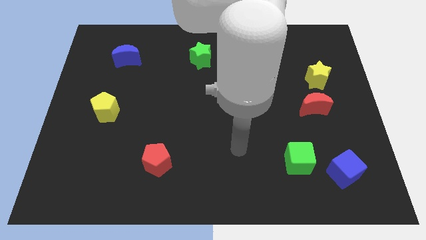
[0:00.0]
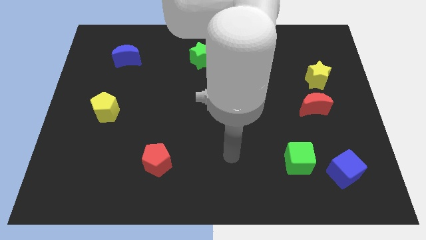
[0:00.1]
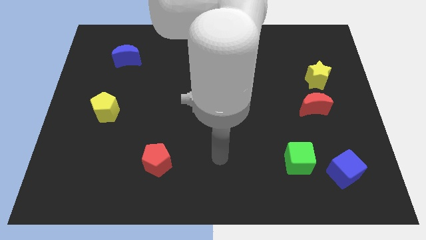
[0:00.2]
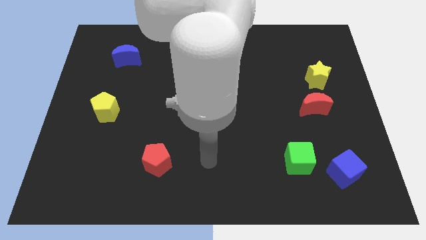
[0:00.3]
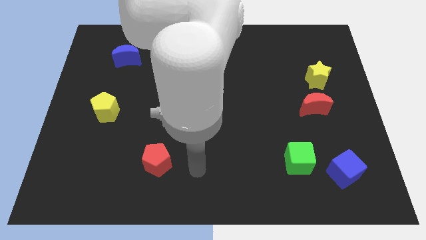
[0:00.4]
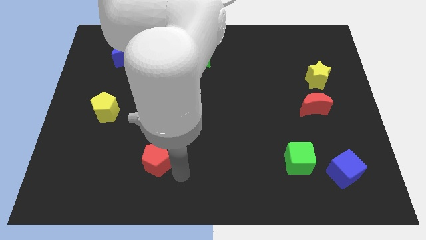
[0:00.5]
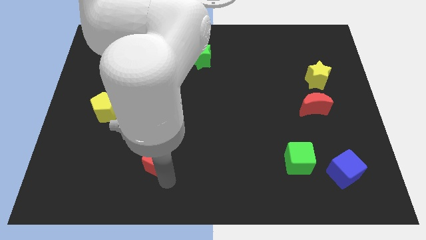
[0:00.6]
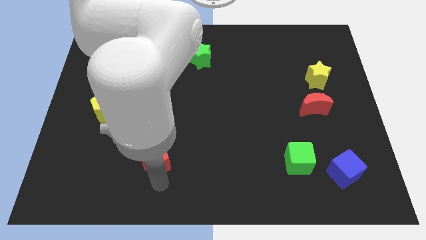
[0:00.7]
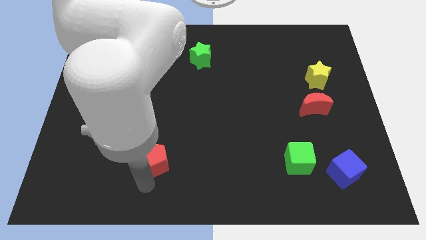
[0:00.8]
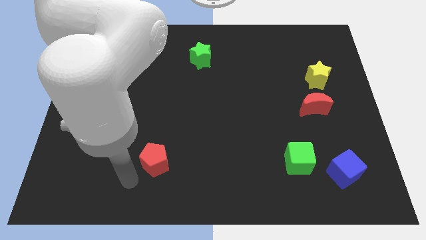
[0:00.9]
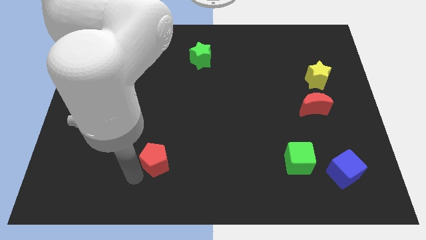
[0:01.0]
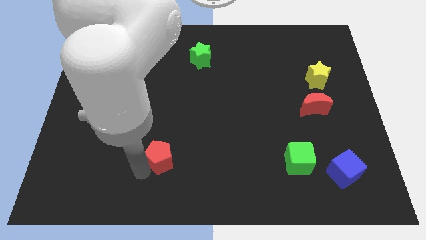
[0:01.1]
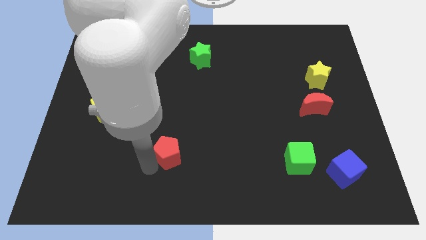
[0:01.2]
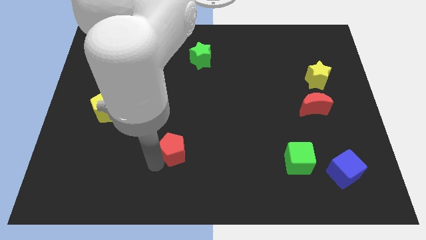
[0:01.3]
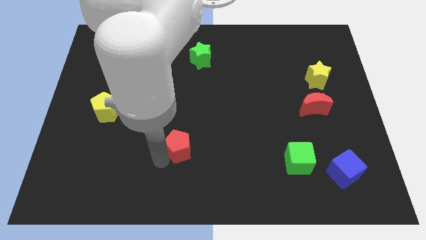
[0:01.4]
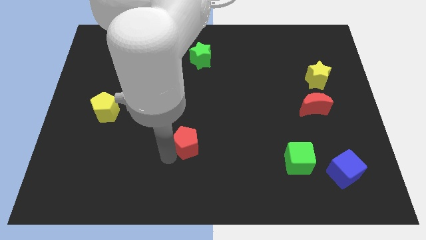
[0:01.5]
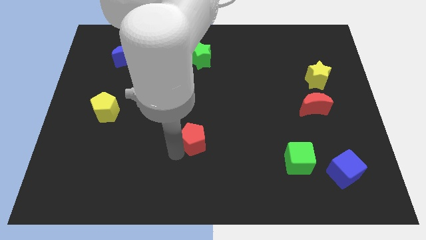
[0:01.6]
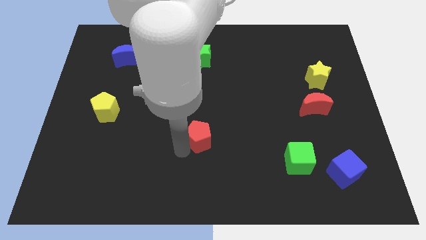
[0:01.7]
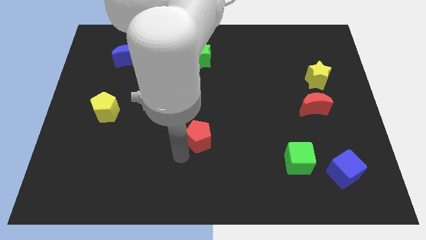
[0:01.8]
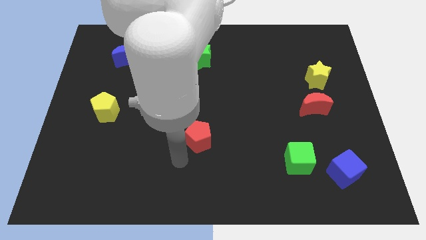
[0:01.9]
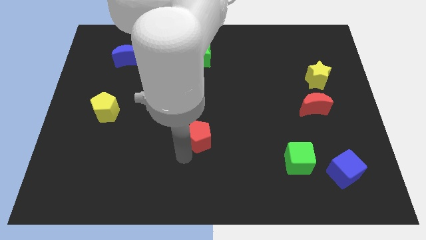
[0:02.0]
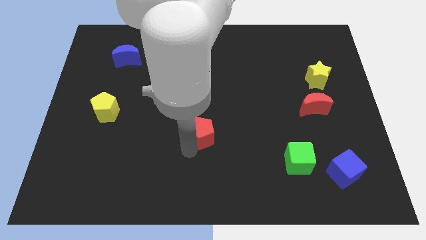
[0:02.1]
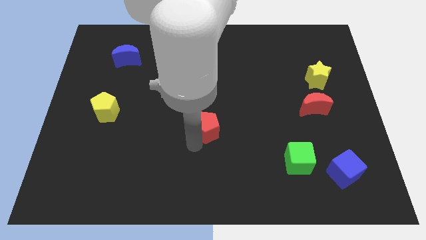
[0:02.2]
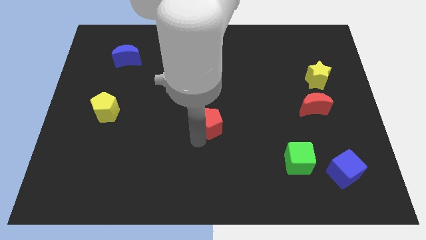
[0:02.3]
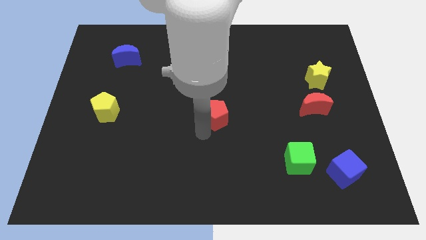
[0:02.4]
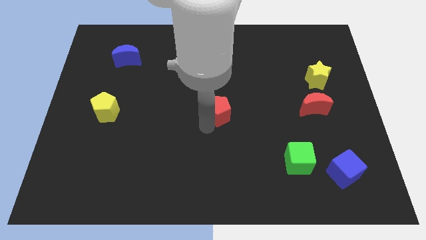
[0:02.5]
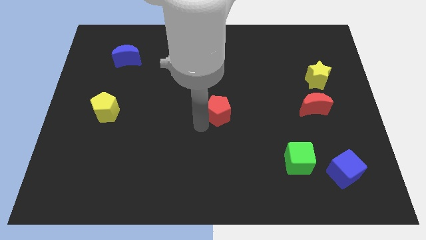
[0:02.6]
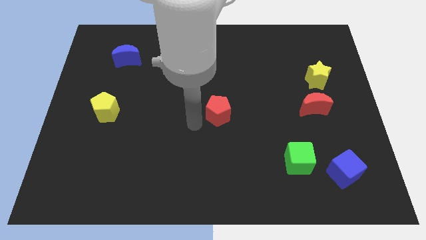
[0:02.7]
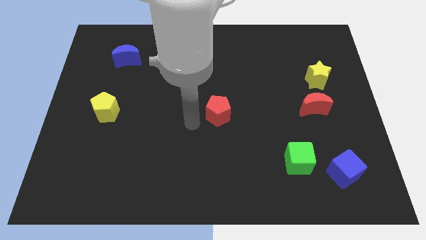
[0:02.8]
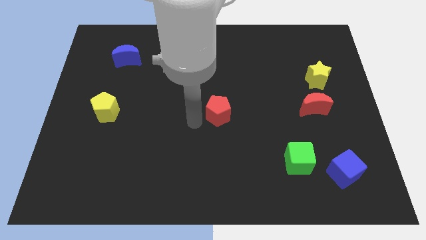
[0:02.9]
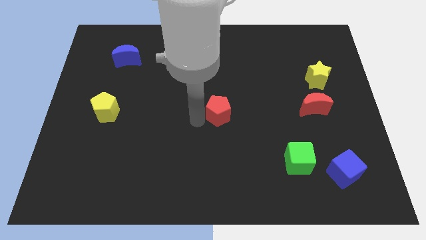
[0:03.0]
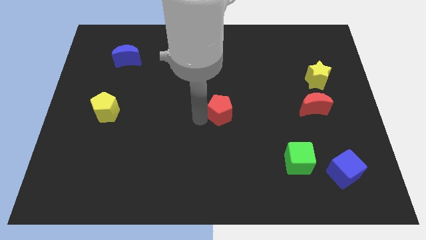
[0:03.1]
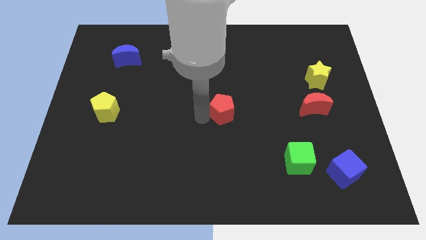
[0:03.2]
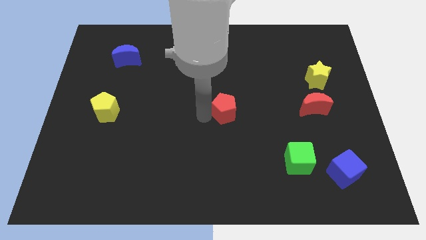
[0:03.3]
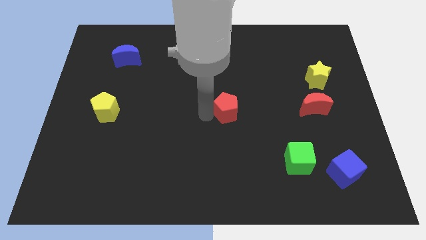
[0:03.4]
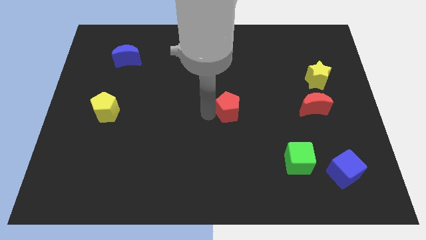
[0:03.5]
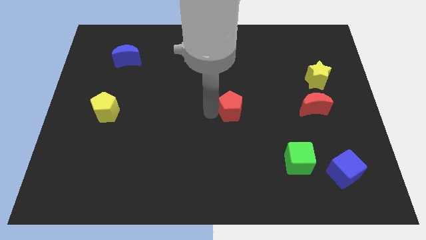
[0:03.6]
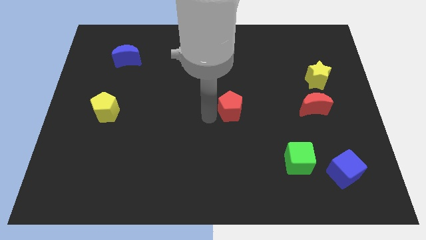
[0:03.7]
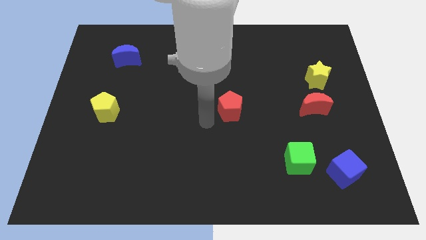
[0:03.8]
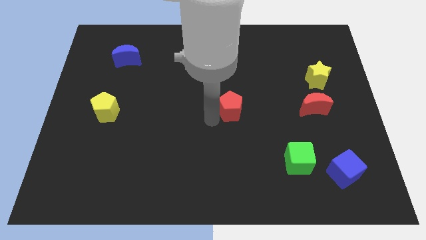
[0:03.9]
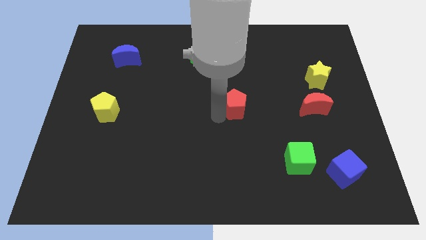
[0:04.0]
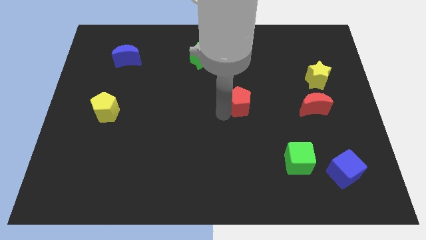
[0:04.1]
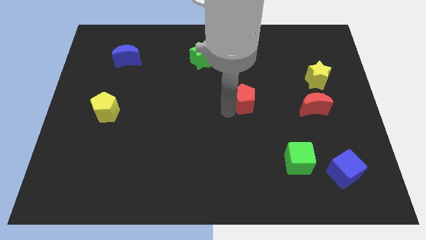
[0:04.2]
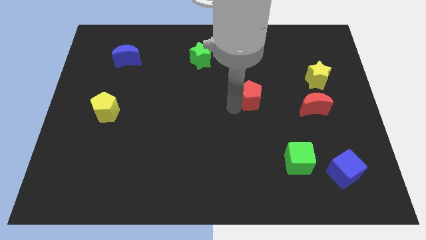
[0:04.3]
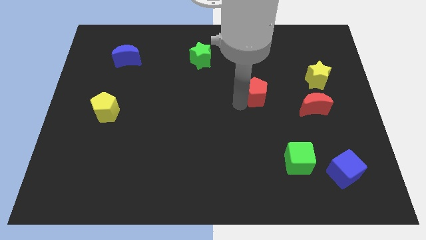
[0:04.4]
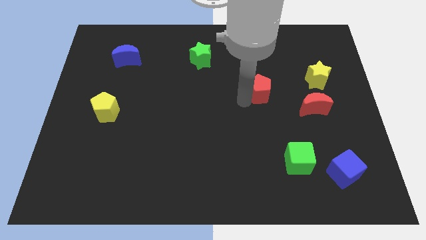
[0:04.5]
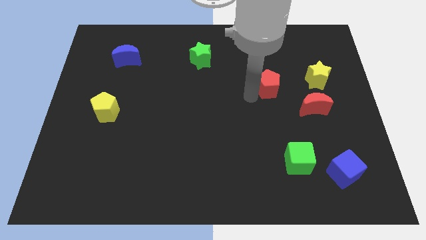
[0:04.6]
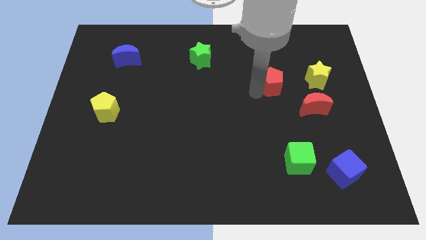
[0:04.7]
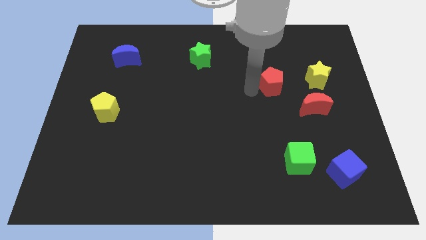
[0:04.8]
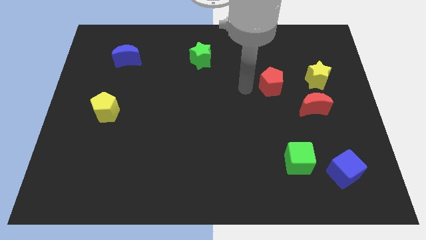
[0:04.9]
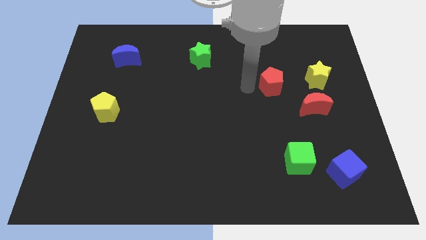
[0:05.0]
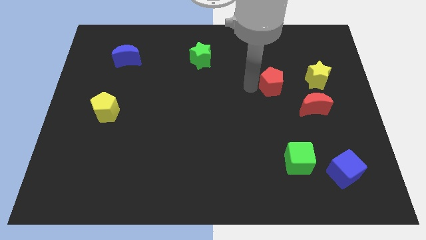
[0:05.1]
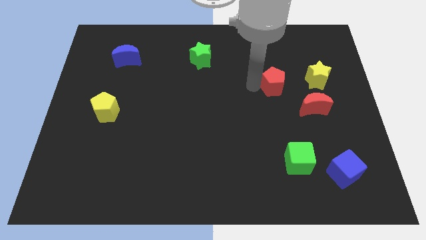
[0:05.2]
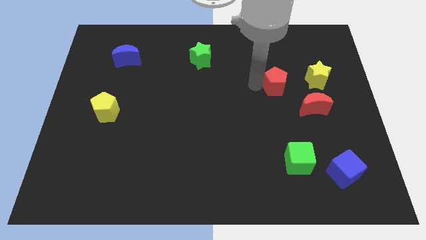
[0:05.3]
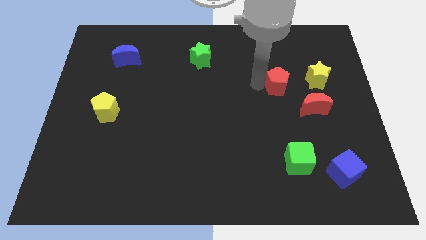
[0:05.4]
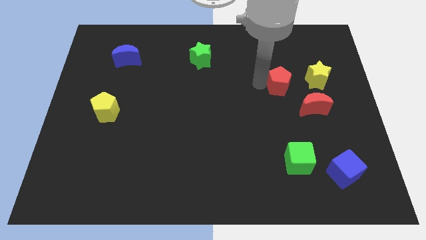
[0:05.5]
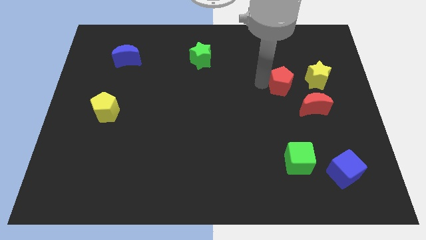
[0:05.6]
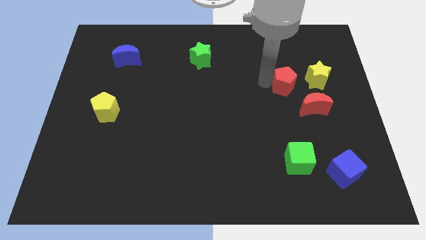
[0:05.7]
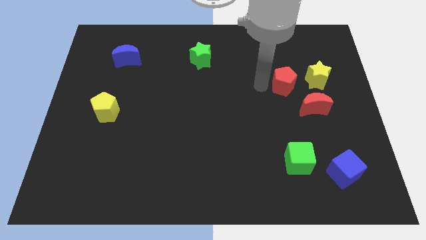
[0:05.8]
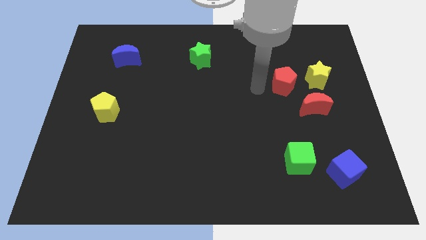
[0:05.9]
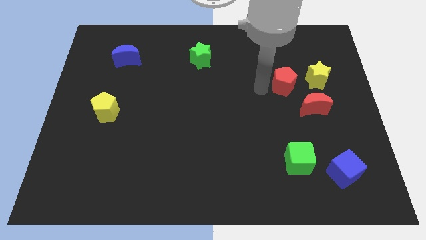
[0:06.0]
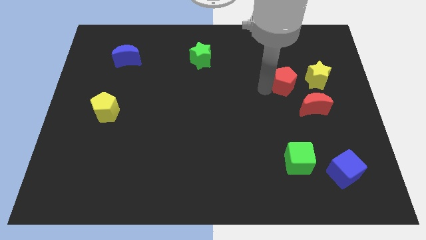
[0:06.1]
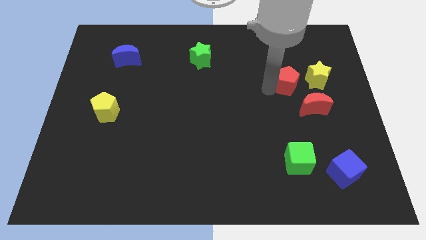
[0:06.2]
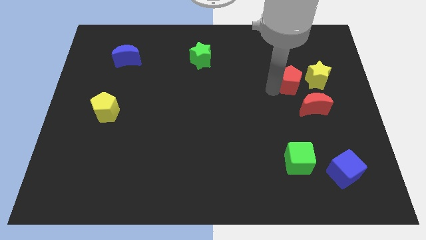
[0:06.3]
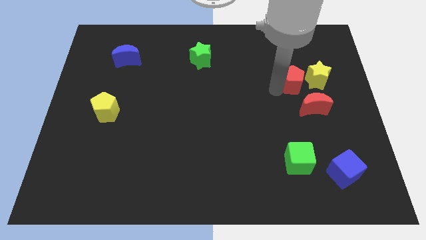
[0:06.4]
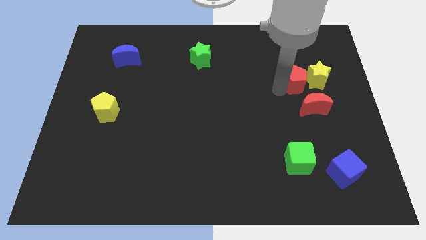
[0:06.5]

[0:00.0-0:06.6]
slide the red pentagon towards the yellow star
